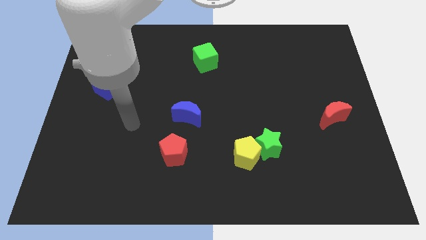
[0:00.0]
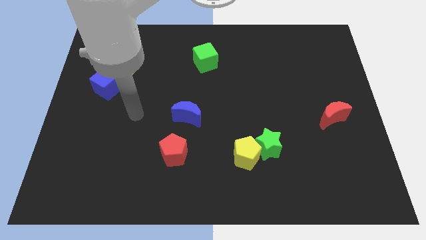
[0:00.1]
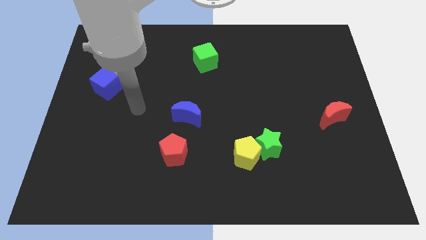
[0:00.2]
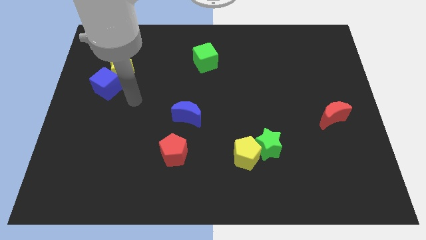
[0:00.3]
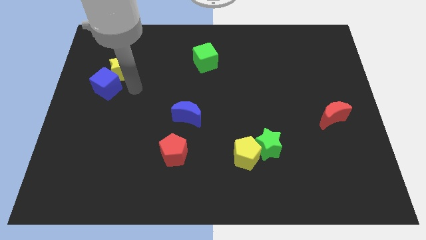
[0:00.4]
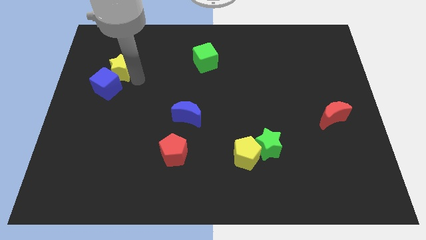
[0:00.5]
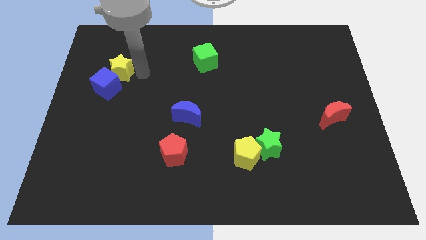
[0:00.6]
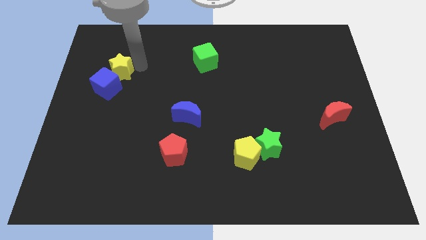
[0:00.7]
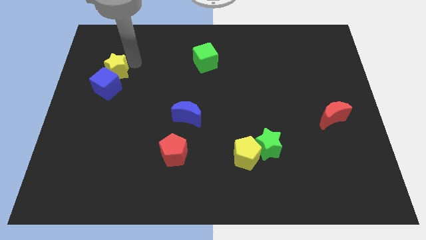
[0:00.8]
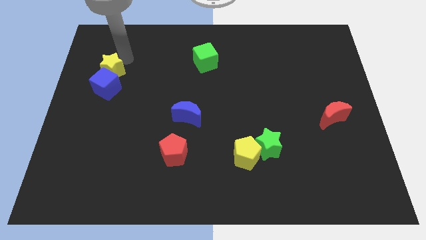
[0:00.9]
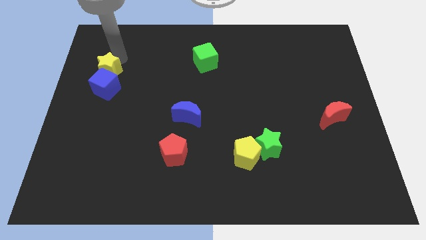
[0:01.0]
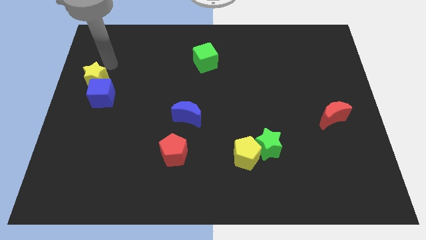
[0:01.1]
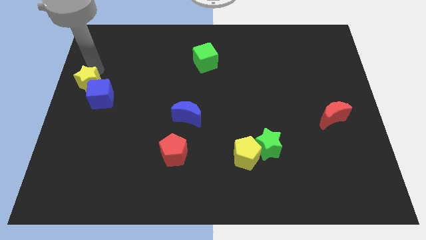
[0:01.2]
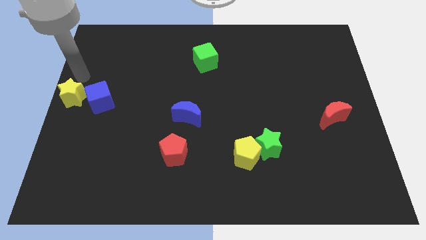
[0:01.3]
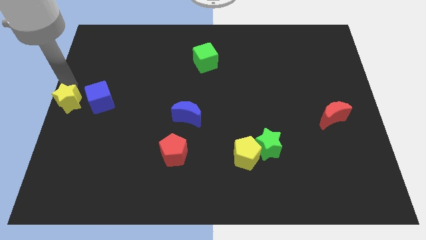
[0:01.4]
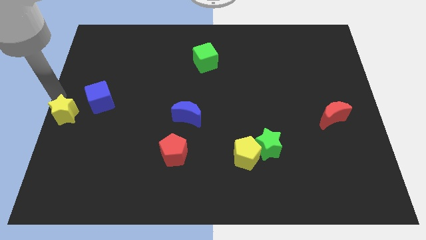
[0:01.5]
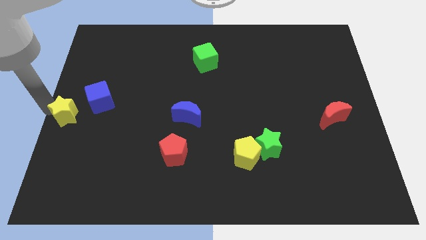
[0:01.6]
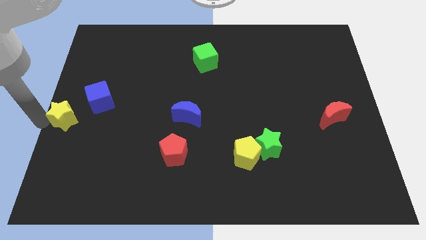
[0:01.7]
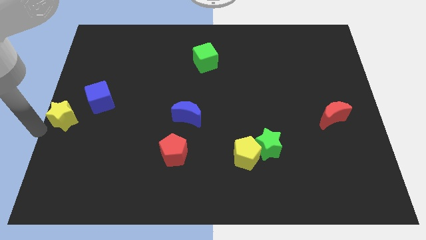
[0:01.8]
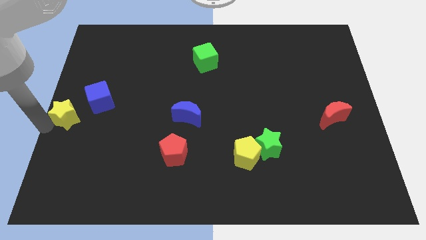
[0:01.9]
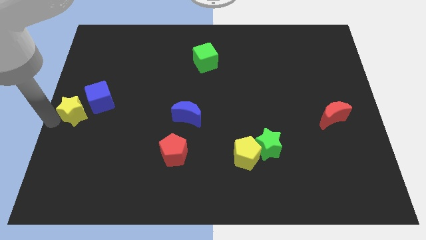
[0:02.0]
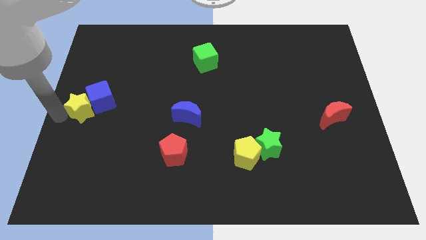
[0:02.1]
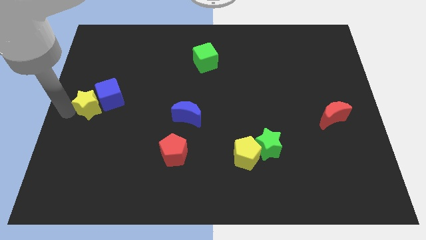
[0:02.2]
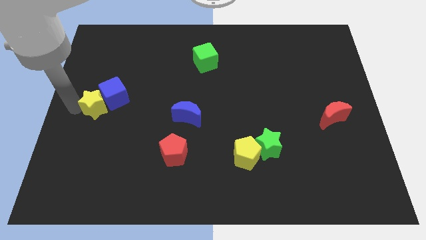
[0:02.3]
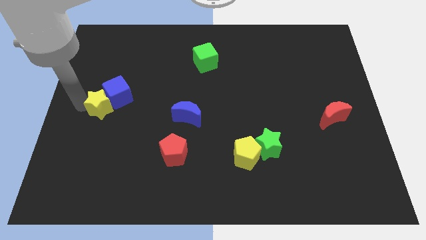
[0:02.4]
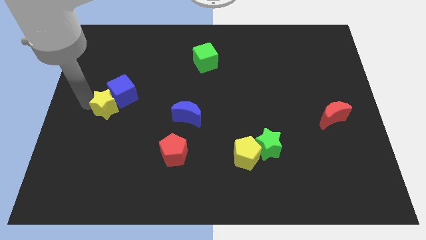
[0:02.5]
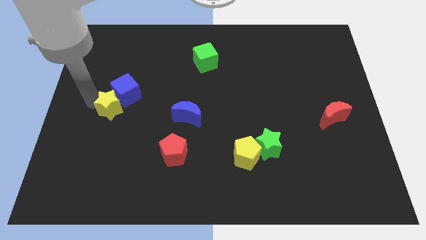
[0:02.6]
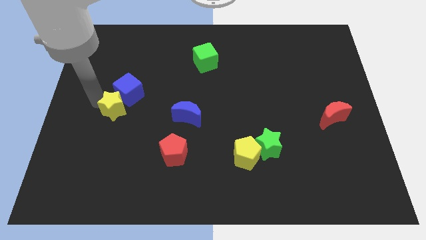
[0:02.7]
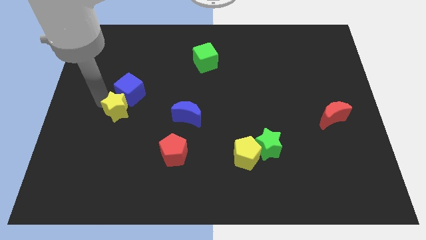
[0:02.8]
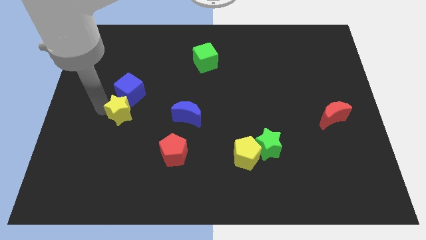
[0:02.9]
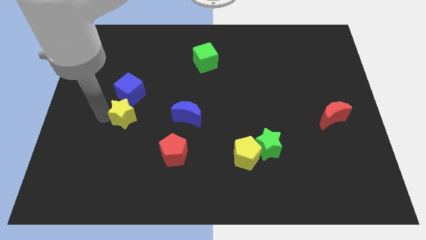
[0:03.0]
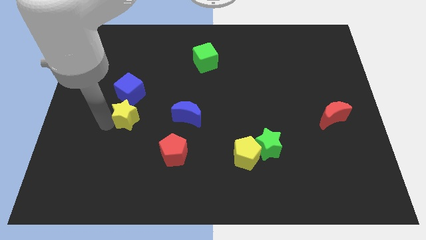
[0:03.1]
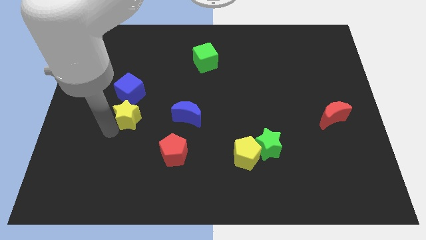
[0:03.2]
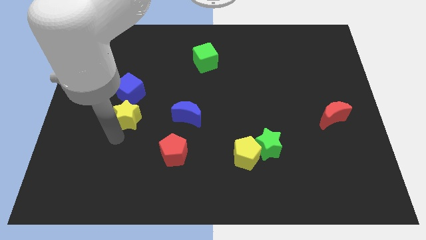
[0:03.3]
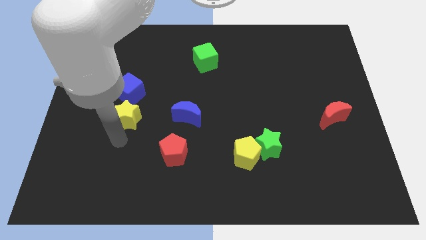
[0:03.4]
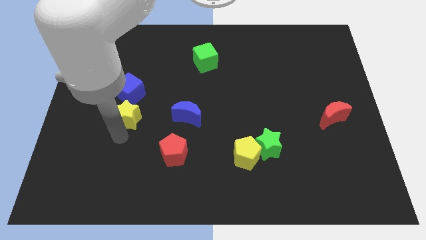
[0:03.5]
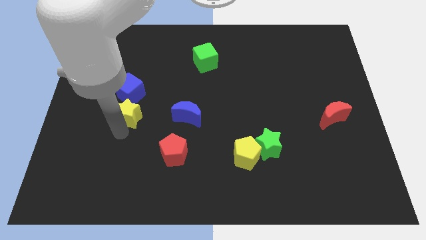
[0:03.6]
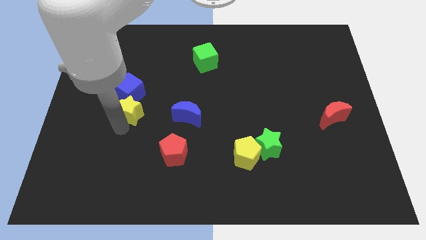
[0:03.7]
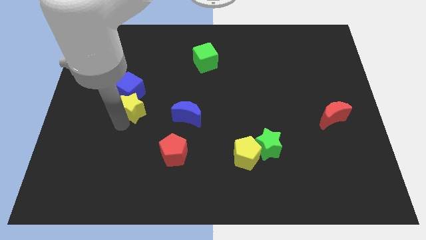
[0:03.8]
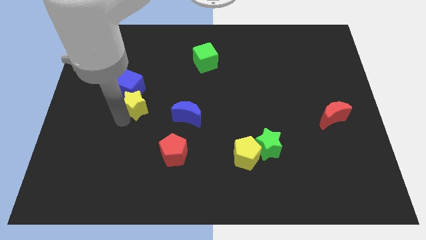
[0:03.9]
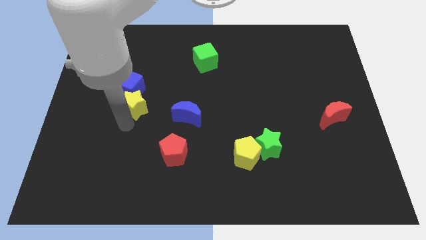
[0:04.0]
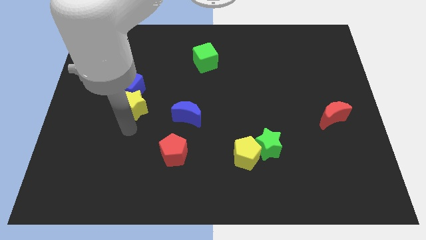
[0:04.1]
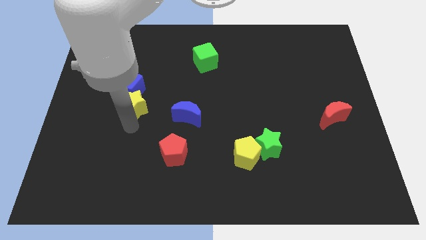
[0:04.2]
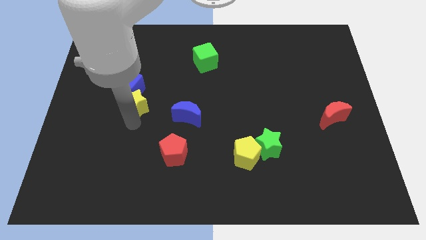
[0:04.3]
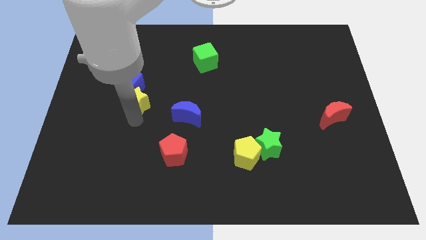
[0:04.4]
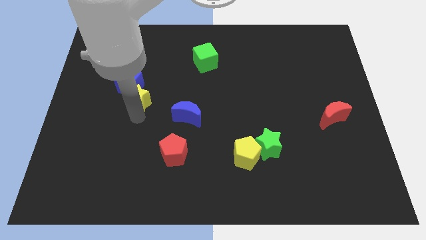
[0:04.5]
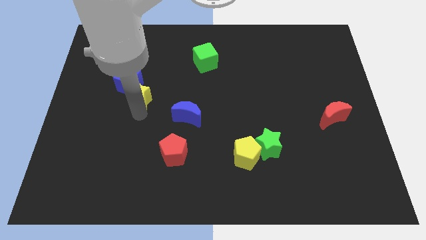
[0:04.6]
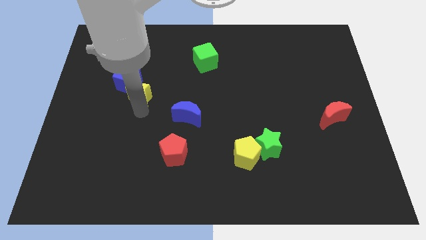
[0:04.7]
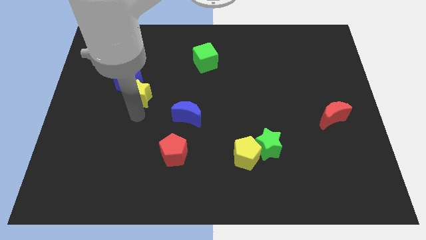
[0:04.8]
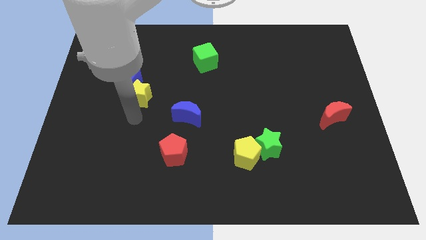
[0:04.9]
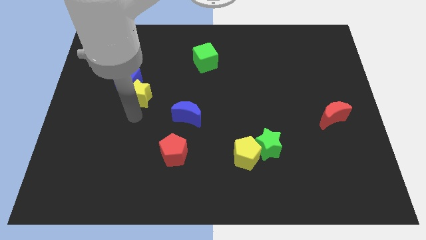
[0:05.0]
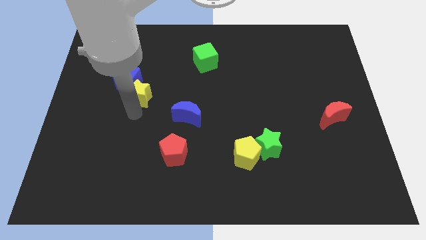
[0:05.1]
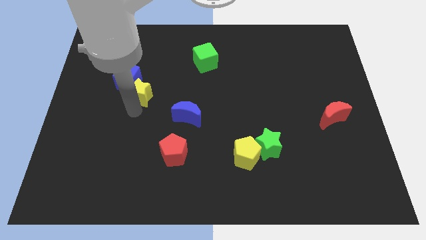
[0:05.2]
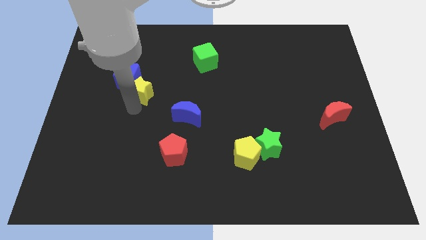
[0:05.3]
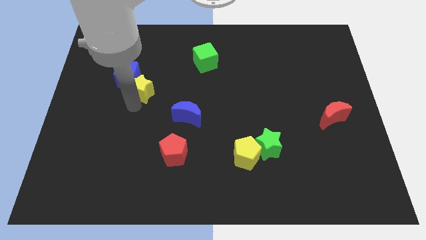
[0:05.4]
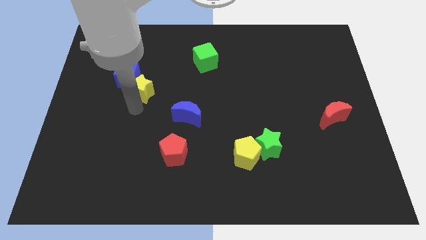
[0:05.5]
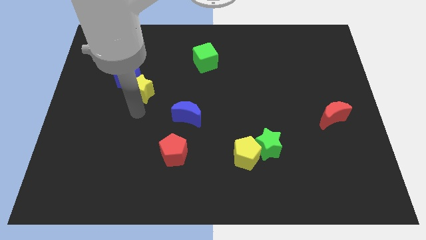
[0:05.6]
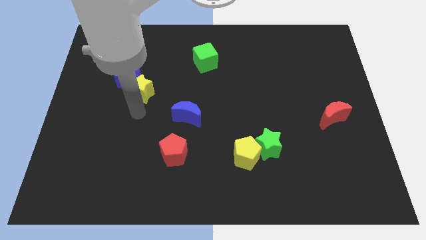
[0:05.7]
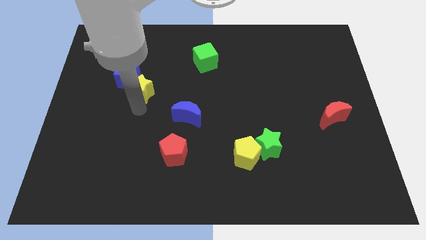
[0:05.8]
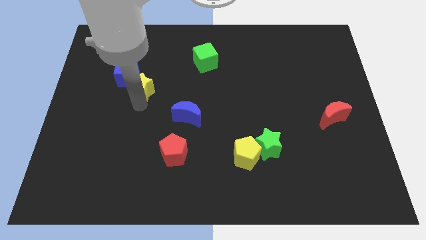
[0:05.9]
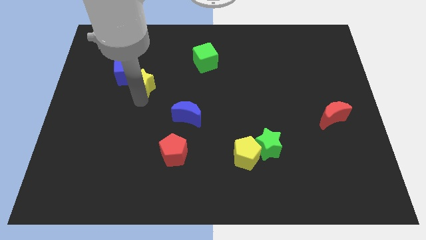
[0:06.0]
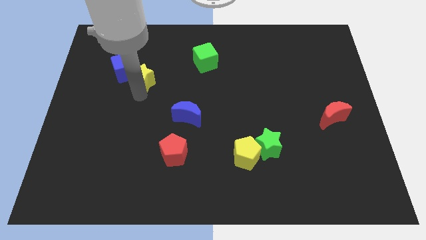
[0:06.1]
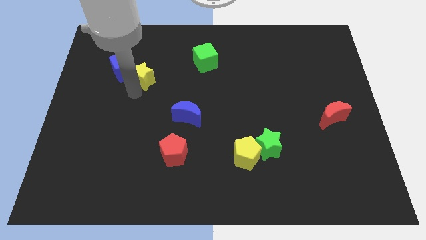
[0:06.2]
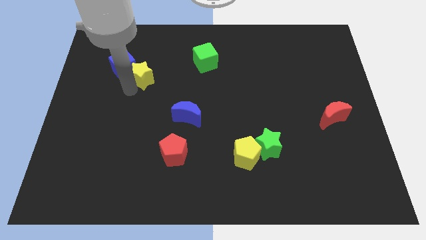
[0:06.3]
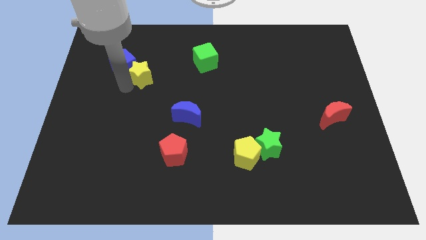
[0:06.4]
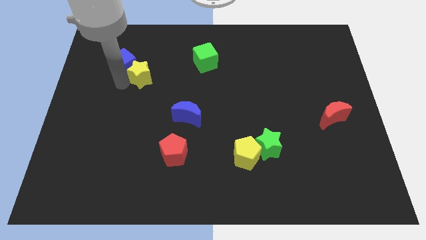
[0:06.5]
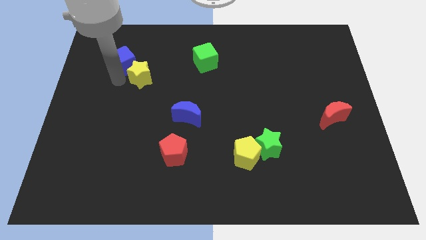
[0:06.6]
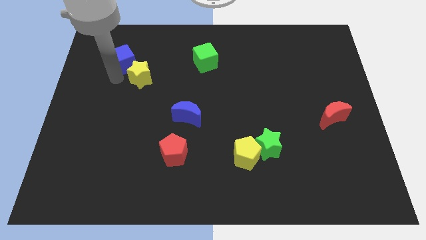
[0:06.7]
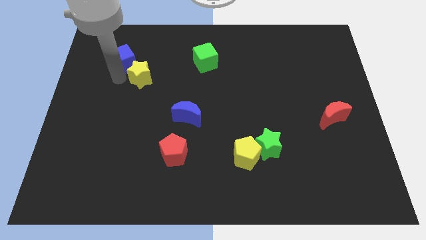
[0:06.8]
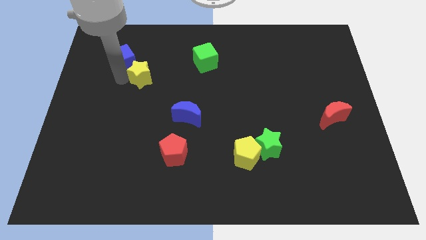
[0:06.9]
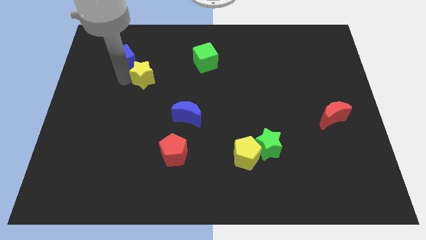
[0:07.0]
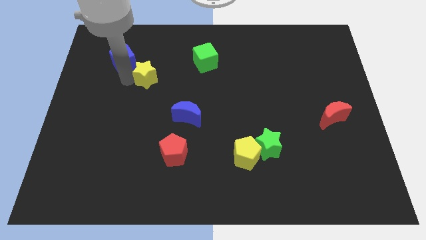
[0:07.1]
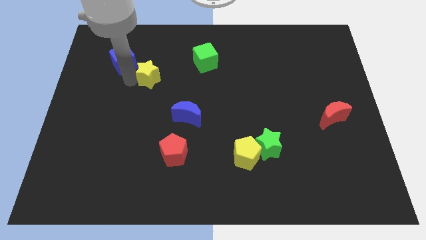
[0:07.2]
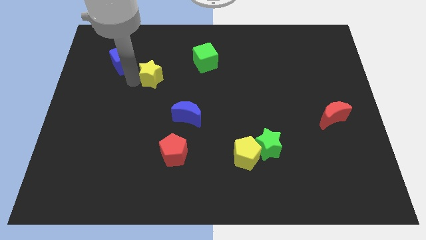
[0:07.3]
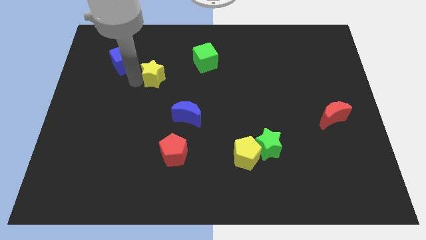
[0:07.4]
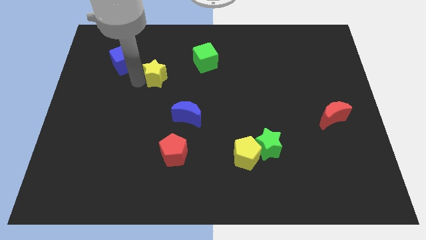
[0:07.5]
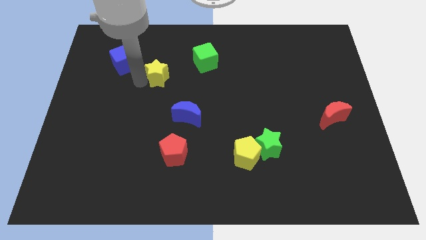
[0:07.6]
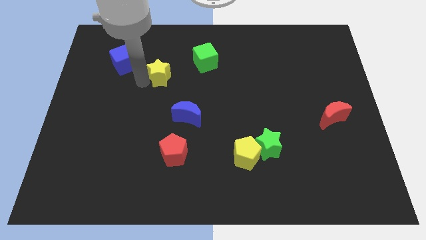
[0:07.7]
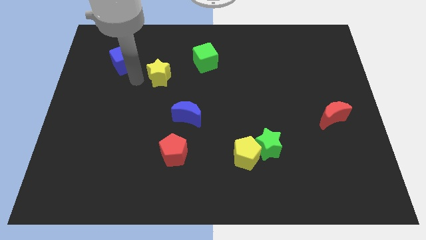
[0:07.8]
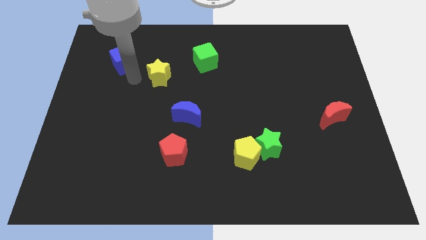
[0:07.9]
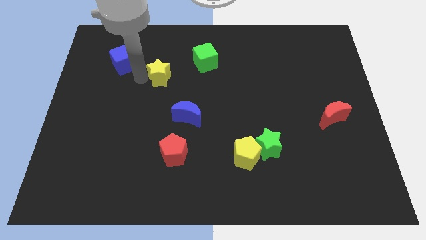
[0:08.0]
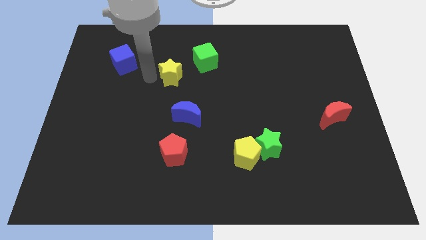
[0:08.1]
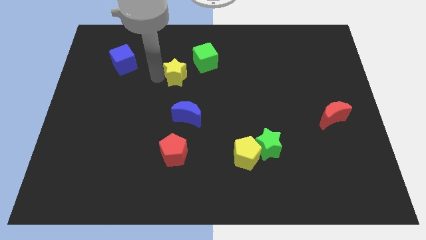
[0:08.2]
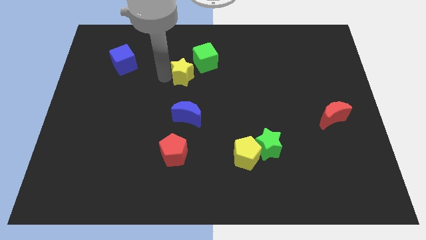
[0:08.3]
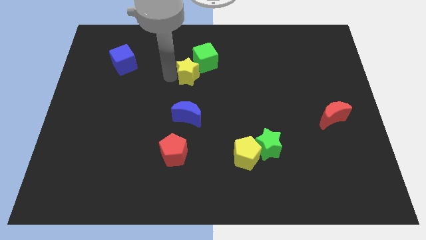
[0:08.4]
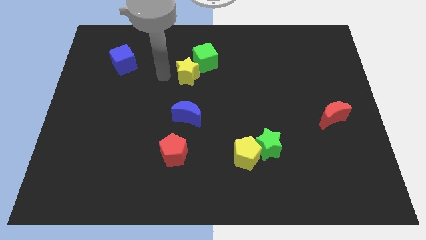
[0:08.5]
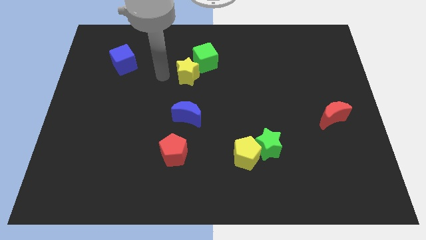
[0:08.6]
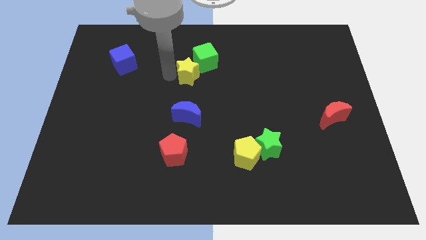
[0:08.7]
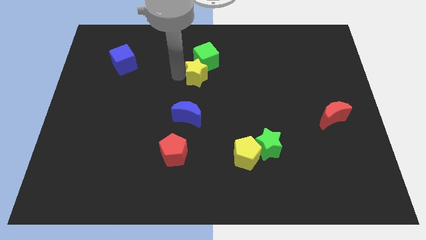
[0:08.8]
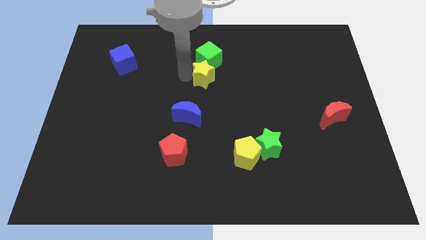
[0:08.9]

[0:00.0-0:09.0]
move the yellow star right
